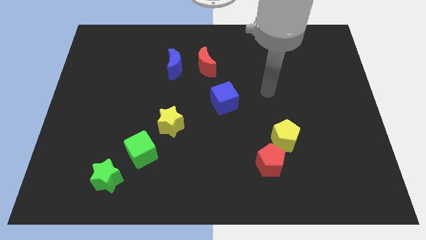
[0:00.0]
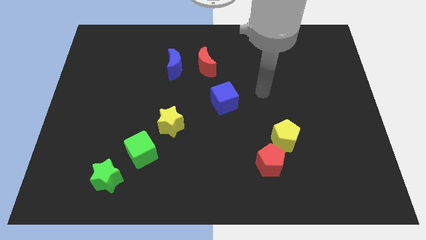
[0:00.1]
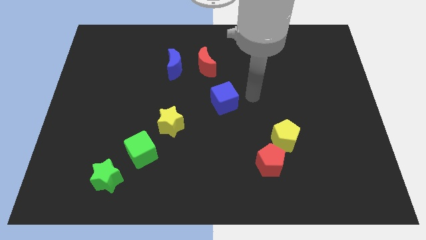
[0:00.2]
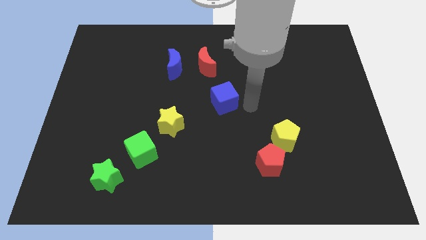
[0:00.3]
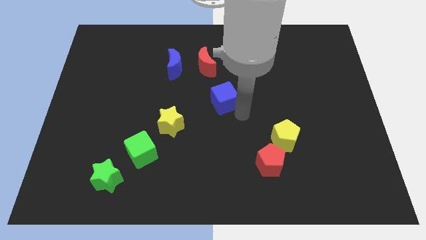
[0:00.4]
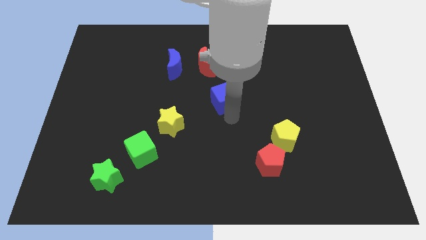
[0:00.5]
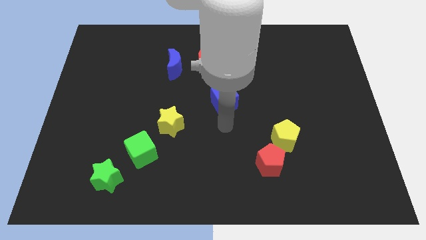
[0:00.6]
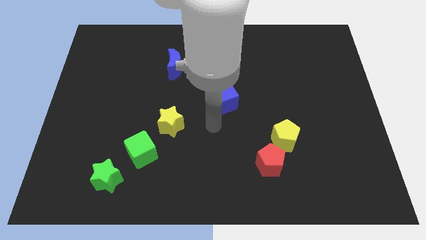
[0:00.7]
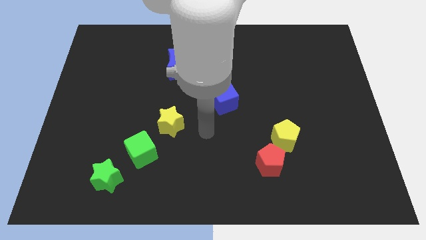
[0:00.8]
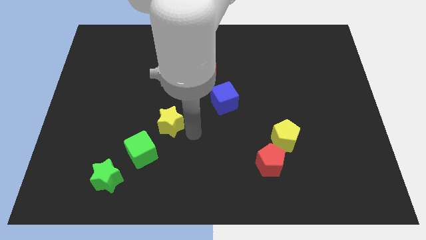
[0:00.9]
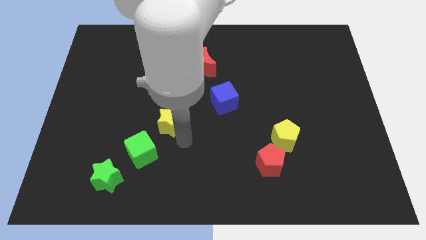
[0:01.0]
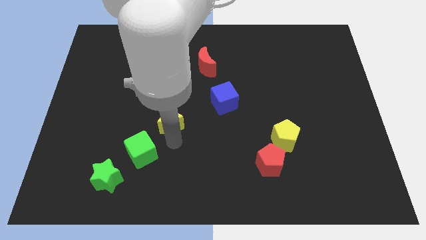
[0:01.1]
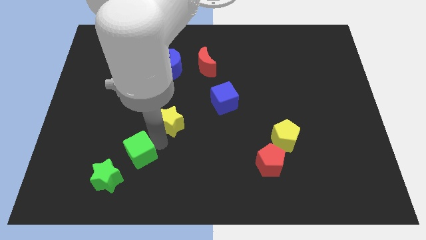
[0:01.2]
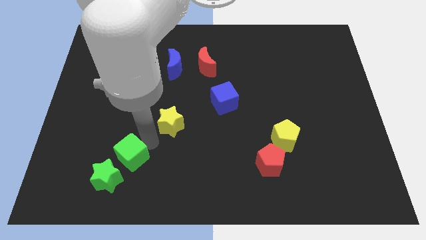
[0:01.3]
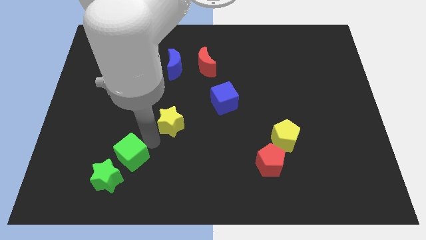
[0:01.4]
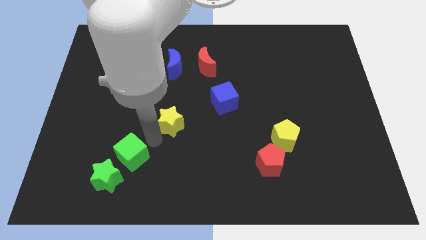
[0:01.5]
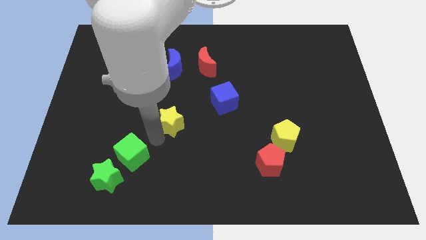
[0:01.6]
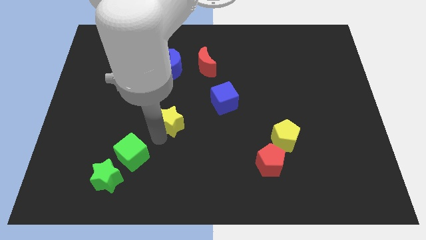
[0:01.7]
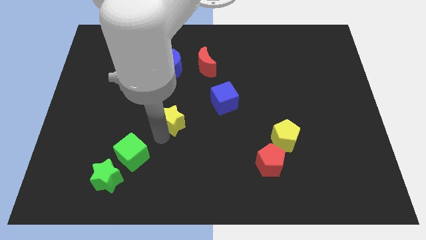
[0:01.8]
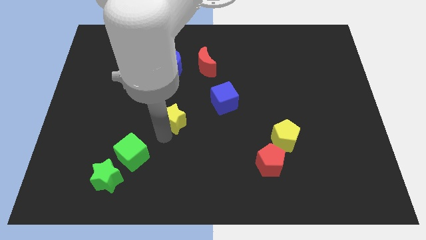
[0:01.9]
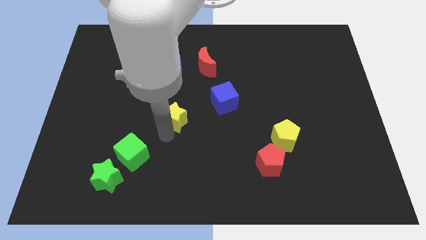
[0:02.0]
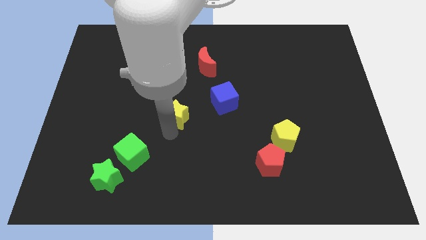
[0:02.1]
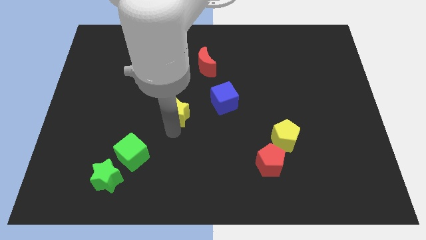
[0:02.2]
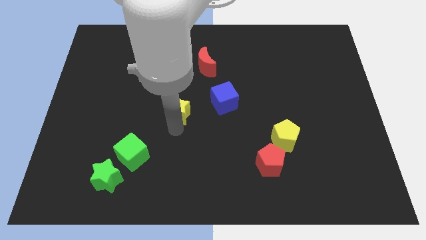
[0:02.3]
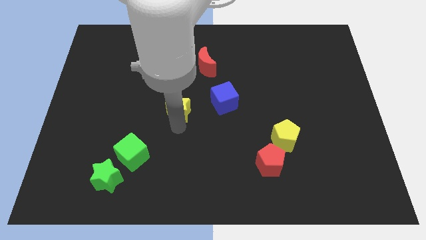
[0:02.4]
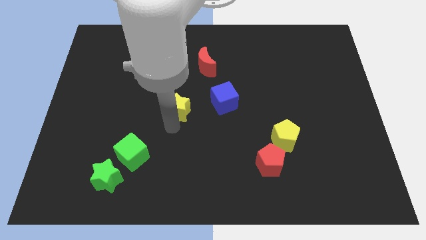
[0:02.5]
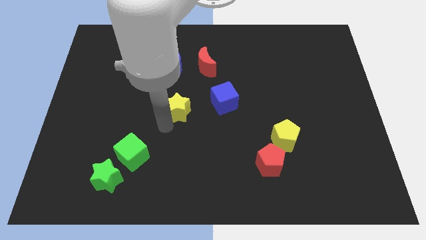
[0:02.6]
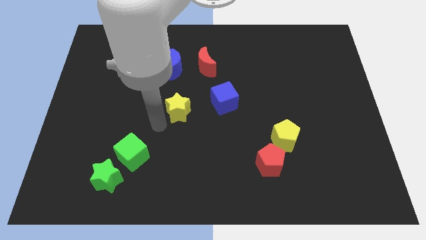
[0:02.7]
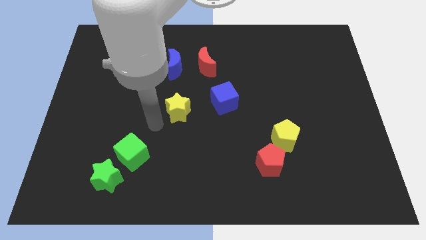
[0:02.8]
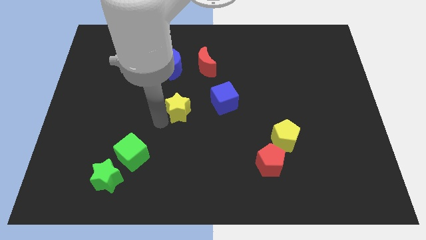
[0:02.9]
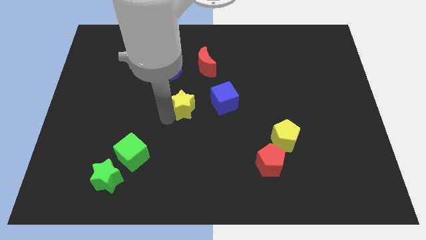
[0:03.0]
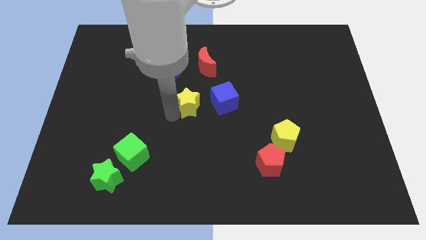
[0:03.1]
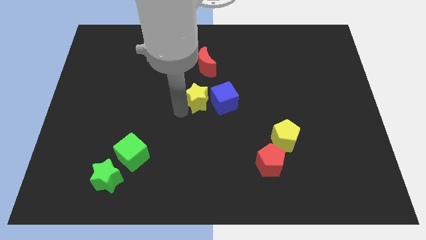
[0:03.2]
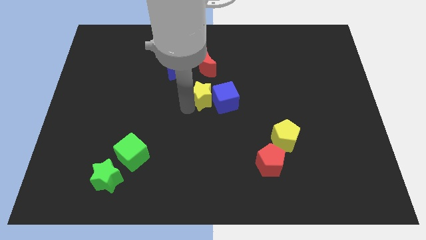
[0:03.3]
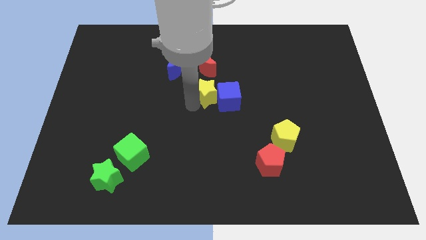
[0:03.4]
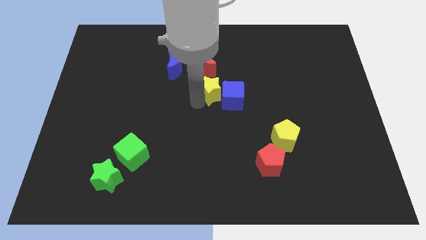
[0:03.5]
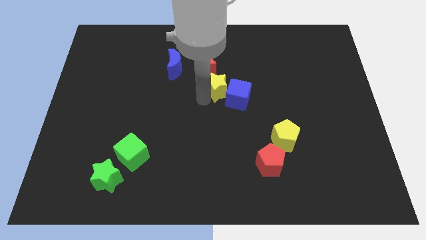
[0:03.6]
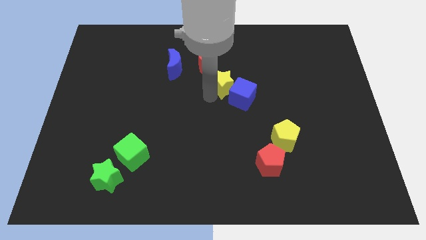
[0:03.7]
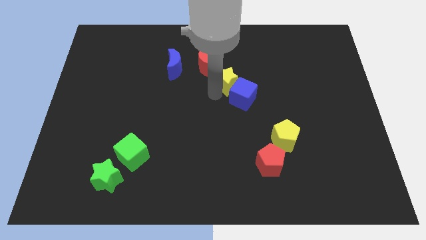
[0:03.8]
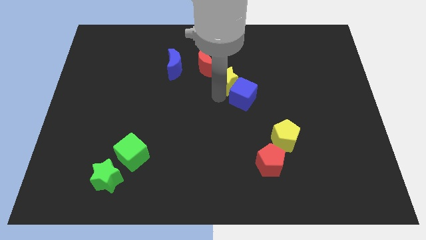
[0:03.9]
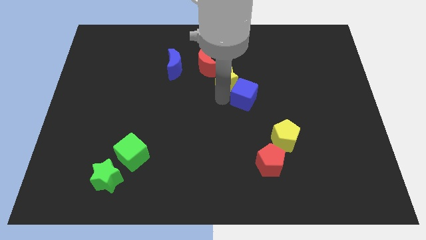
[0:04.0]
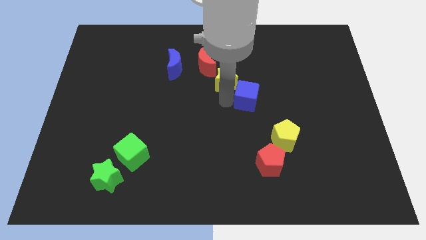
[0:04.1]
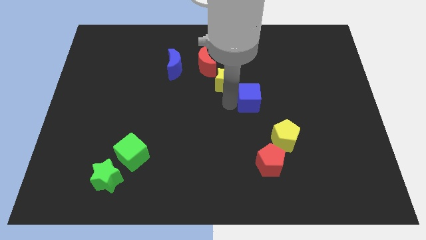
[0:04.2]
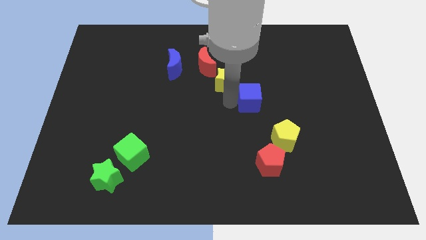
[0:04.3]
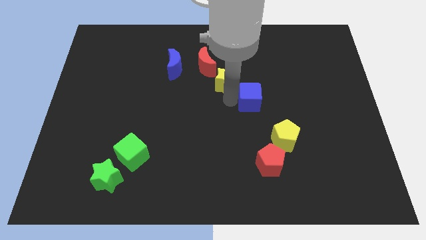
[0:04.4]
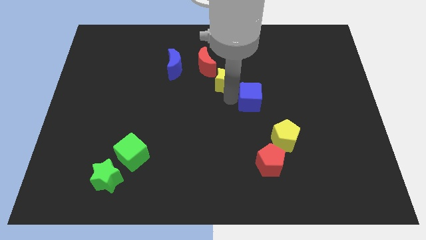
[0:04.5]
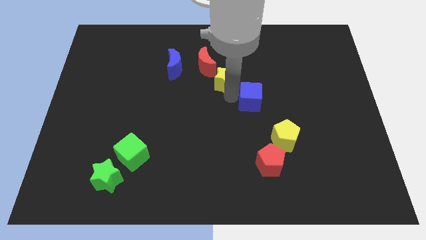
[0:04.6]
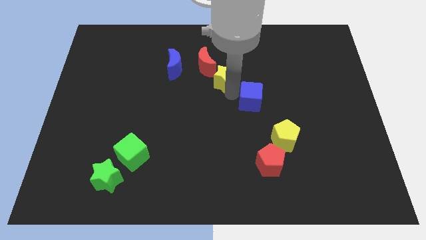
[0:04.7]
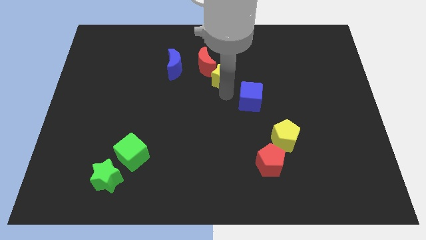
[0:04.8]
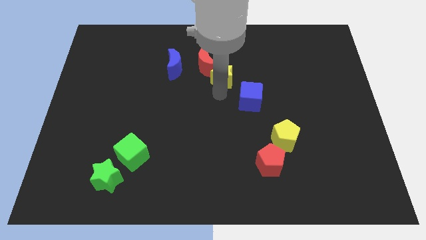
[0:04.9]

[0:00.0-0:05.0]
push the yellow star just right of the red moon

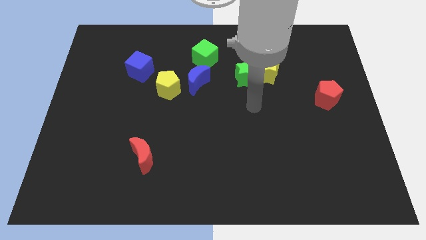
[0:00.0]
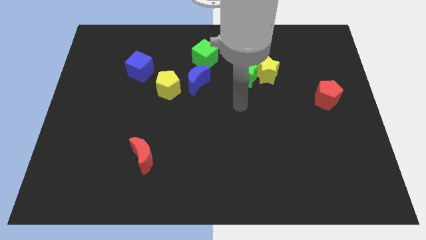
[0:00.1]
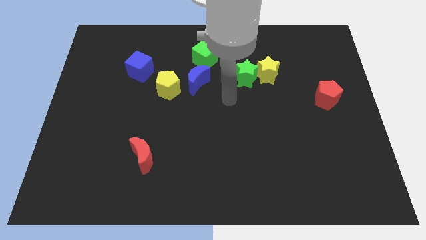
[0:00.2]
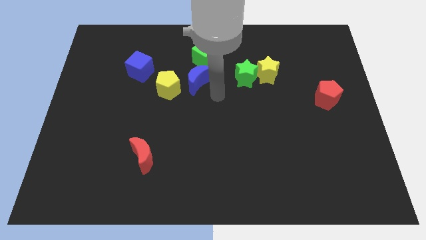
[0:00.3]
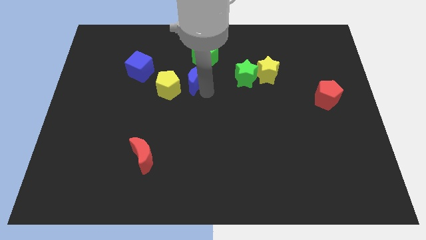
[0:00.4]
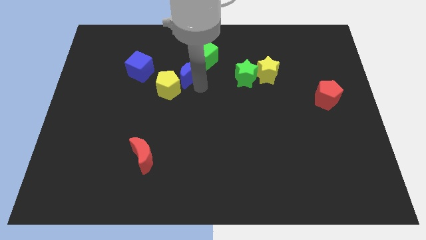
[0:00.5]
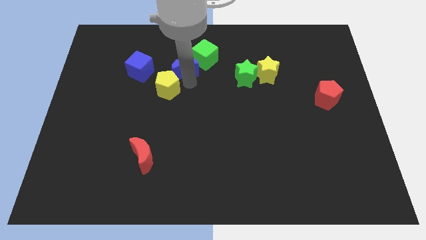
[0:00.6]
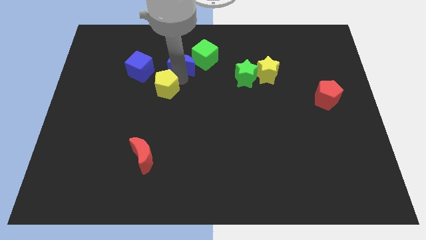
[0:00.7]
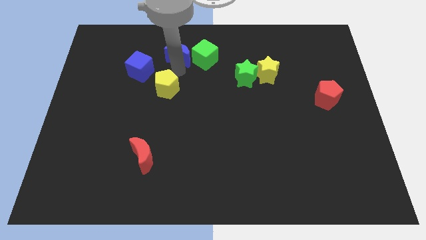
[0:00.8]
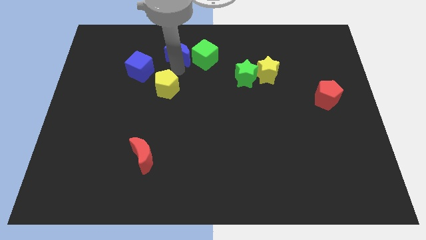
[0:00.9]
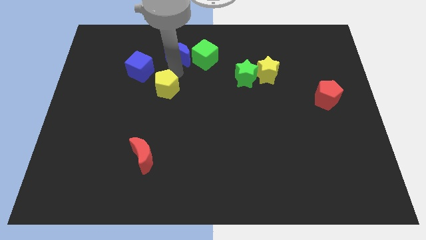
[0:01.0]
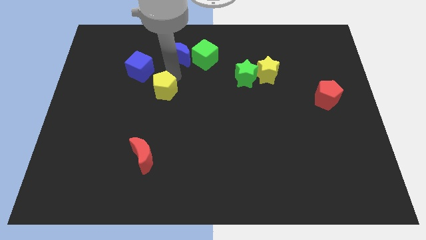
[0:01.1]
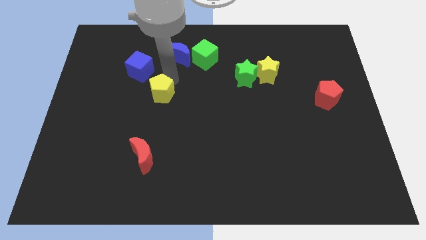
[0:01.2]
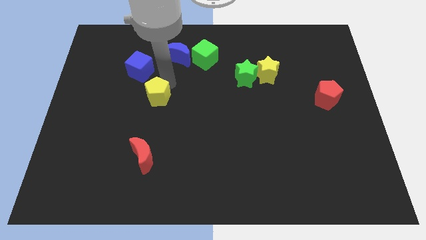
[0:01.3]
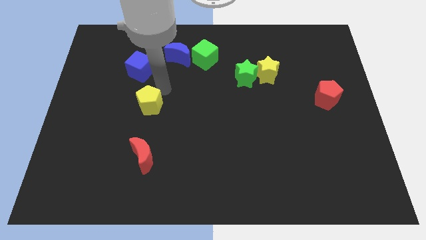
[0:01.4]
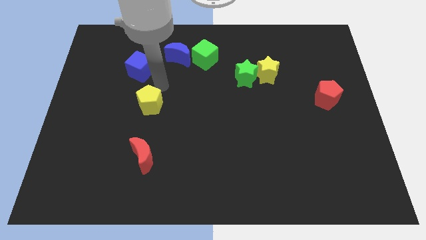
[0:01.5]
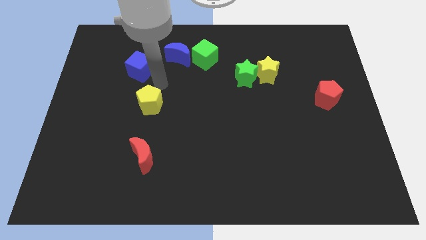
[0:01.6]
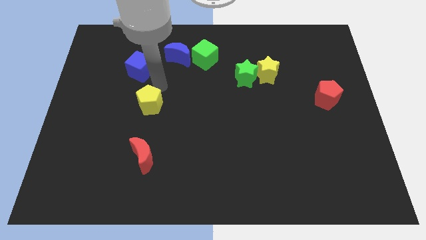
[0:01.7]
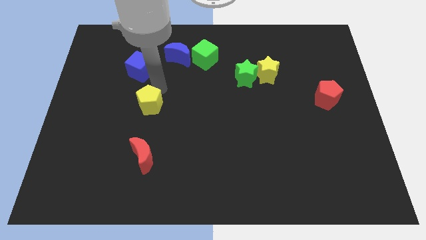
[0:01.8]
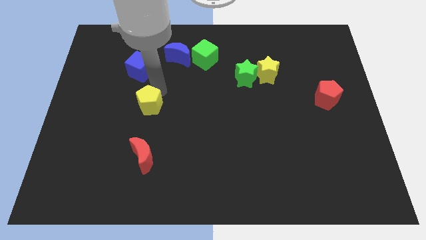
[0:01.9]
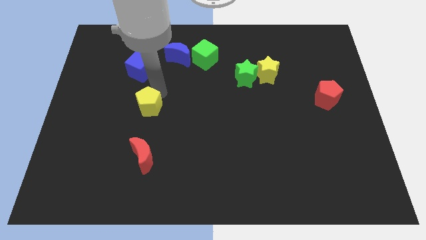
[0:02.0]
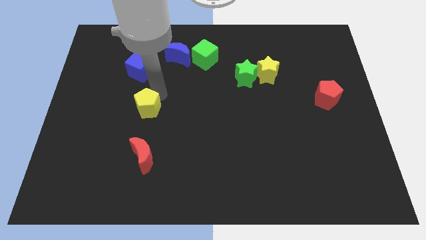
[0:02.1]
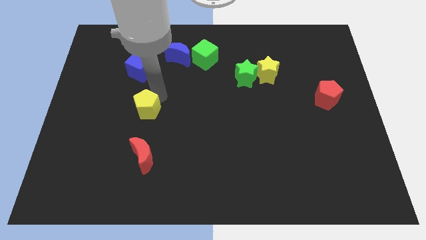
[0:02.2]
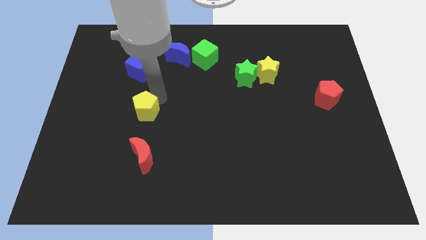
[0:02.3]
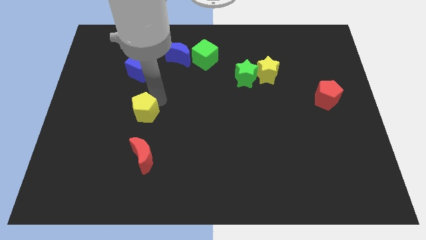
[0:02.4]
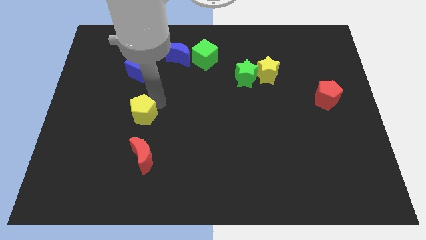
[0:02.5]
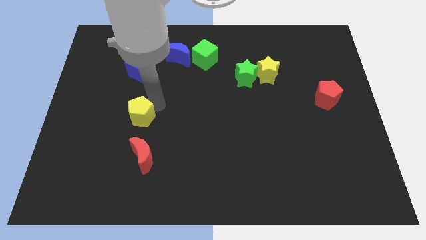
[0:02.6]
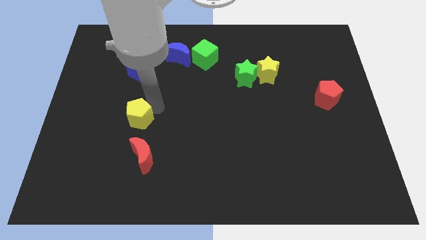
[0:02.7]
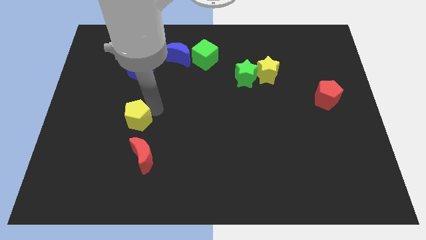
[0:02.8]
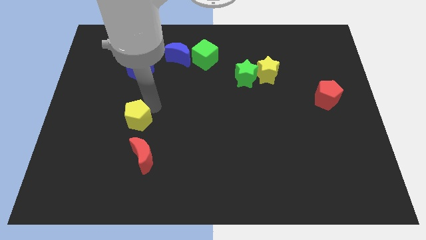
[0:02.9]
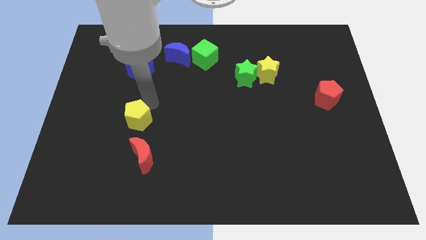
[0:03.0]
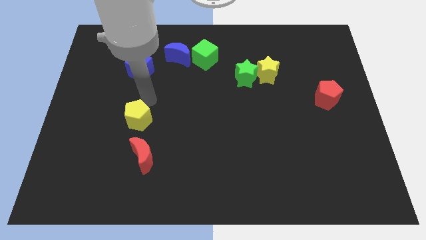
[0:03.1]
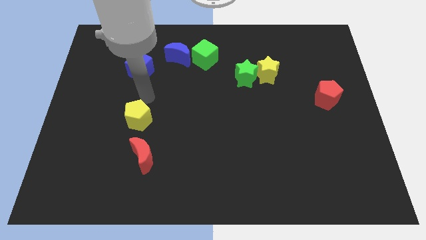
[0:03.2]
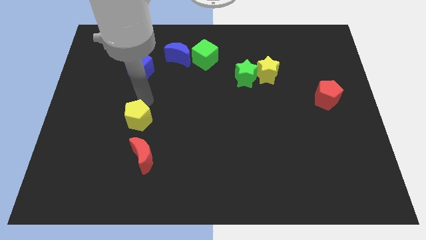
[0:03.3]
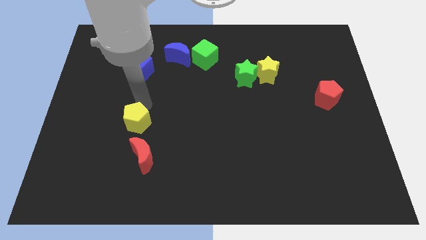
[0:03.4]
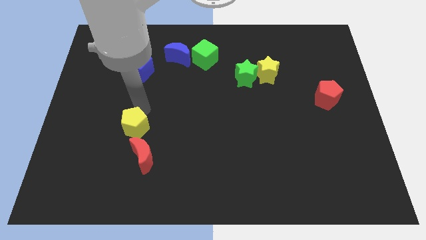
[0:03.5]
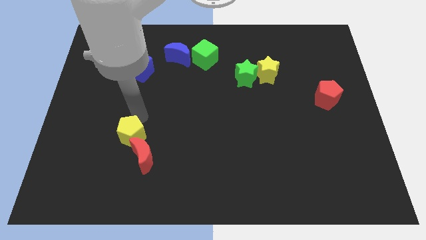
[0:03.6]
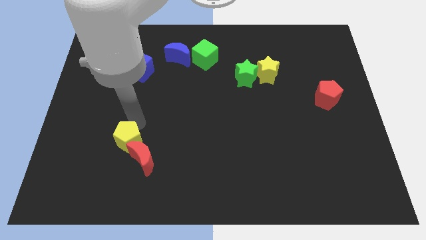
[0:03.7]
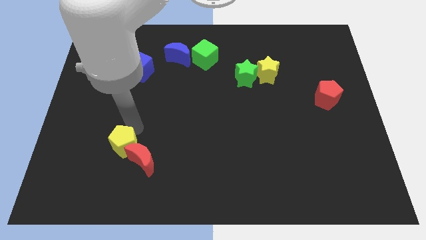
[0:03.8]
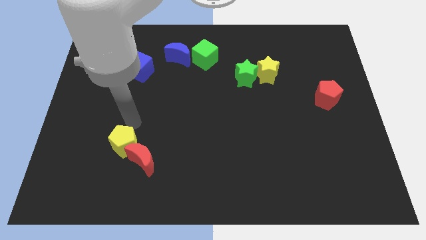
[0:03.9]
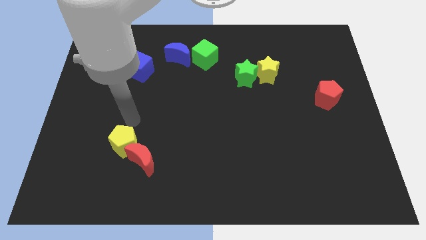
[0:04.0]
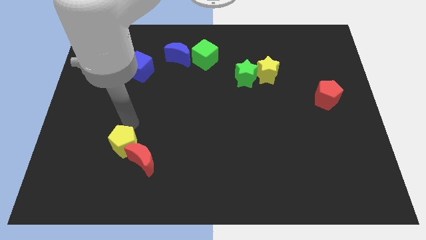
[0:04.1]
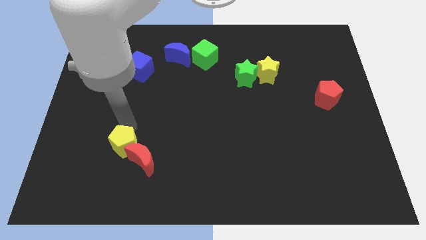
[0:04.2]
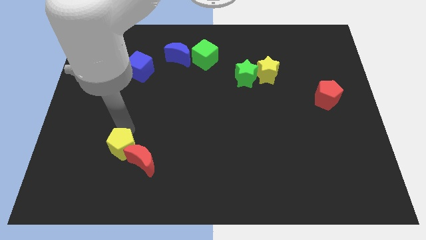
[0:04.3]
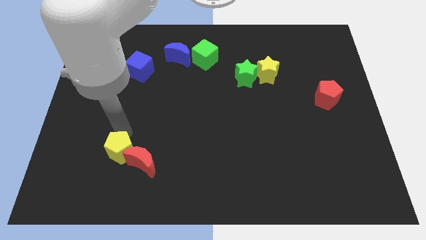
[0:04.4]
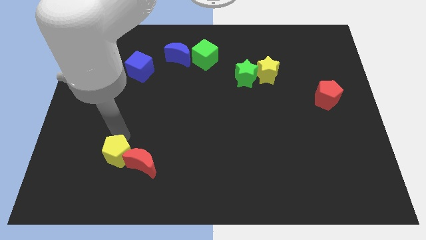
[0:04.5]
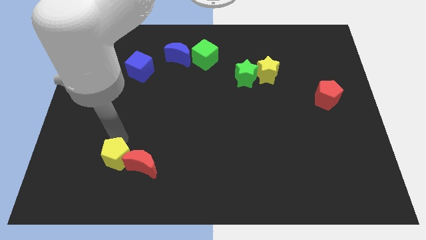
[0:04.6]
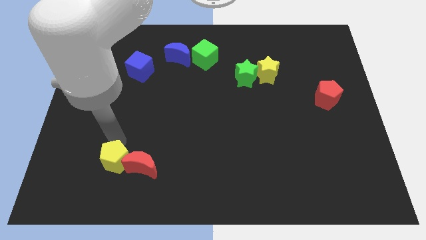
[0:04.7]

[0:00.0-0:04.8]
slide the yellow pentagon to the bottom left side of the red moon
